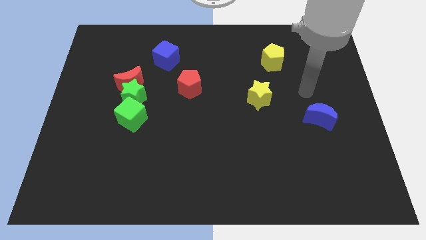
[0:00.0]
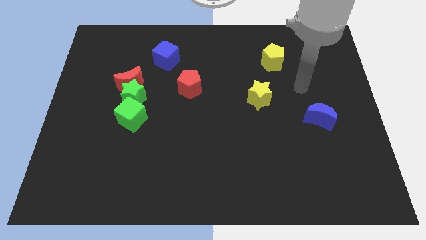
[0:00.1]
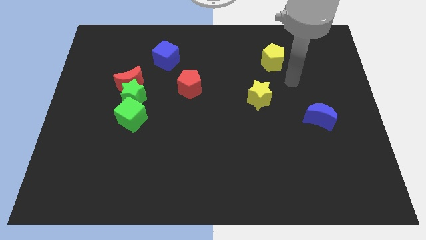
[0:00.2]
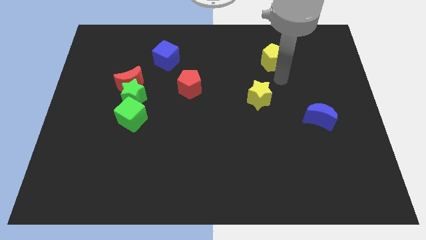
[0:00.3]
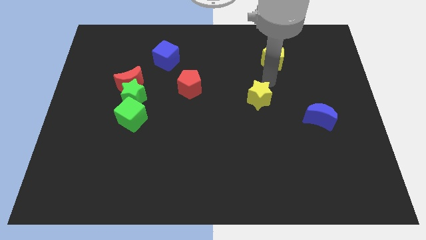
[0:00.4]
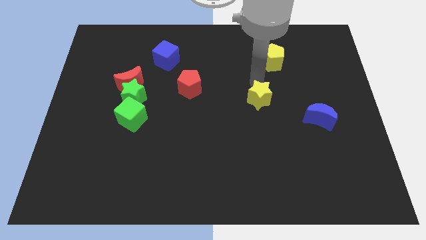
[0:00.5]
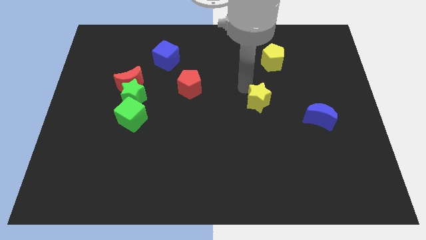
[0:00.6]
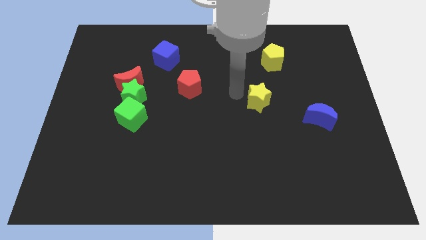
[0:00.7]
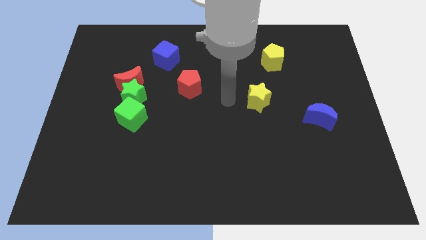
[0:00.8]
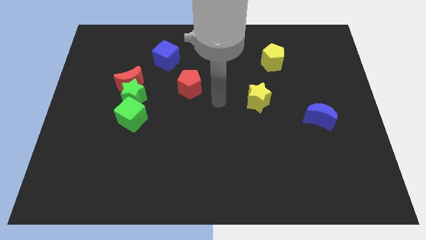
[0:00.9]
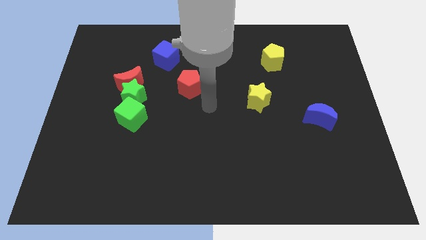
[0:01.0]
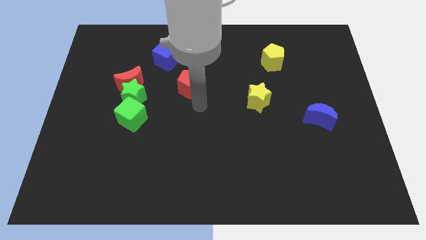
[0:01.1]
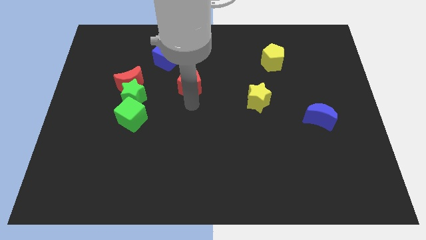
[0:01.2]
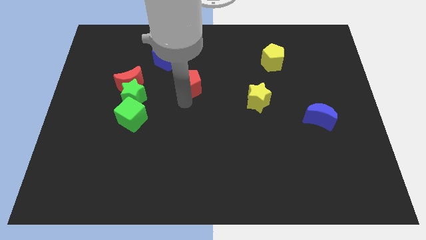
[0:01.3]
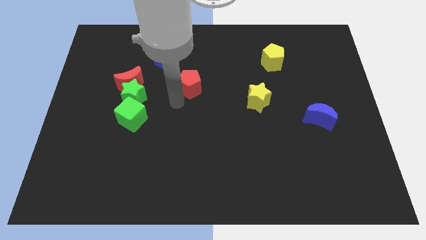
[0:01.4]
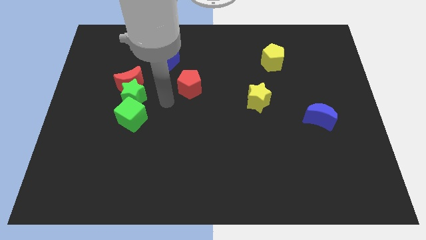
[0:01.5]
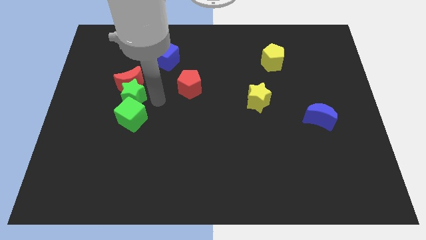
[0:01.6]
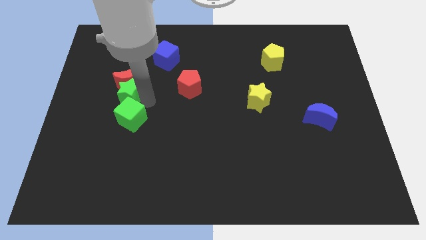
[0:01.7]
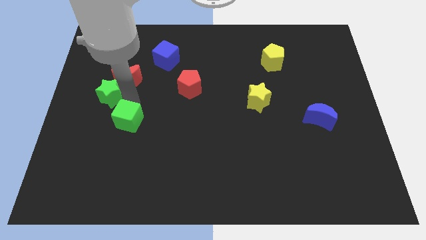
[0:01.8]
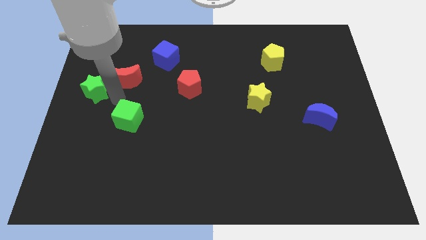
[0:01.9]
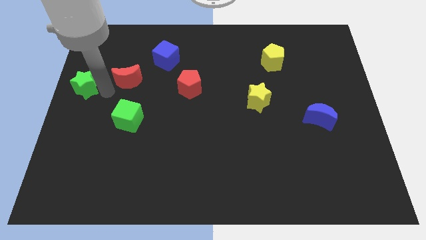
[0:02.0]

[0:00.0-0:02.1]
separate the red moon from the green star

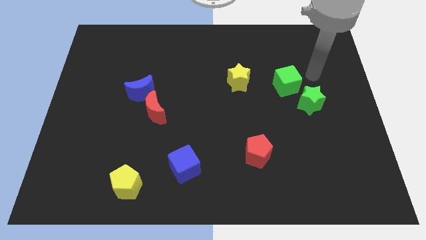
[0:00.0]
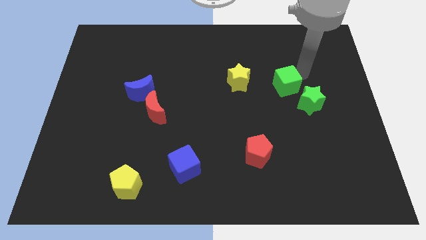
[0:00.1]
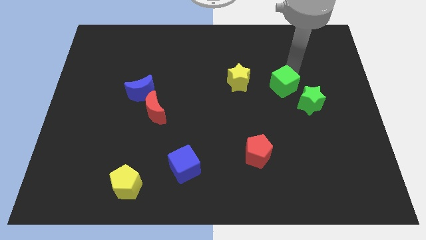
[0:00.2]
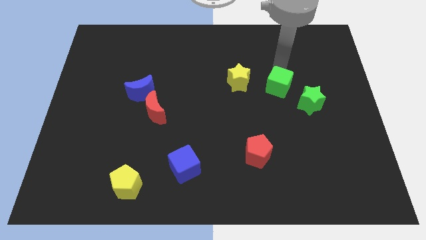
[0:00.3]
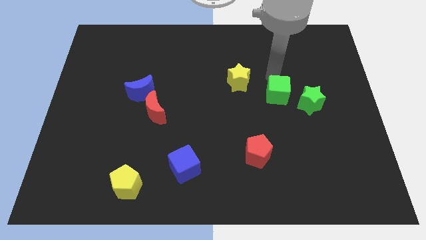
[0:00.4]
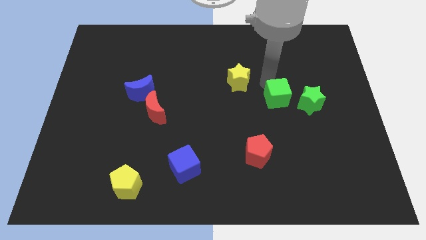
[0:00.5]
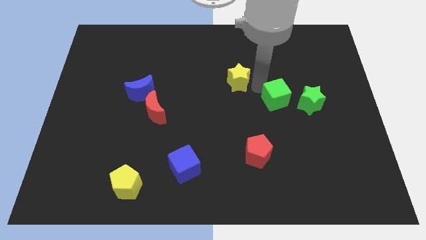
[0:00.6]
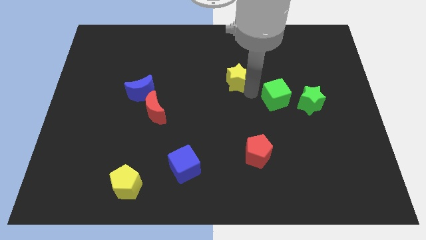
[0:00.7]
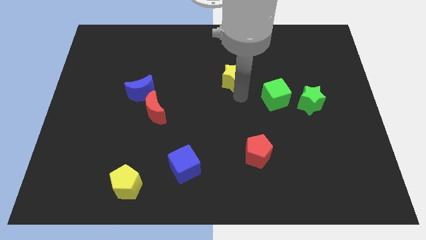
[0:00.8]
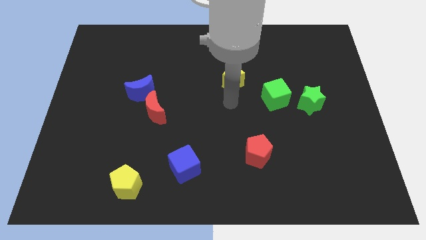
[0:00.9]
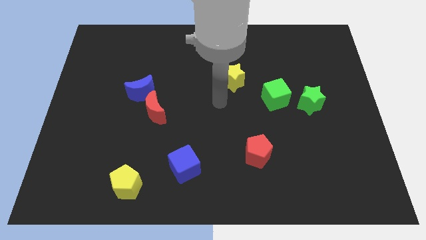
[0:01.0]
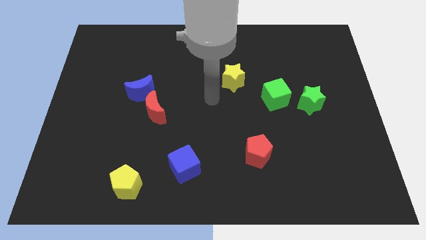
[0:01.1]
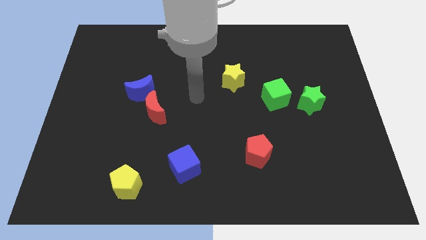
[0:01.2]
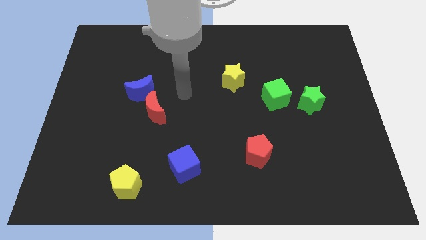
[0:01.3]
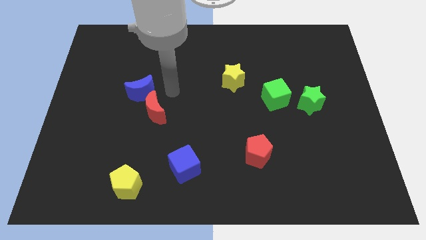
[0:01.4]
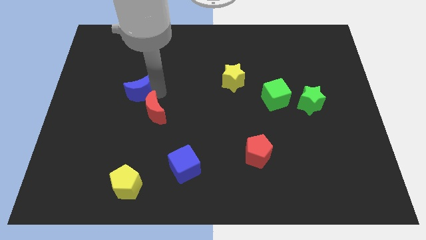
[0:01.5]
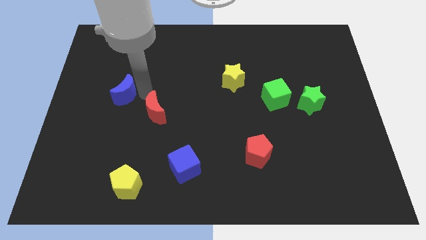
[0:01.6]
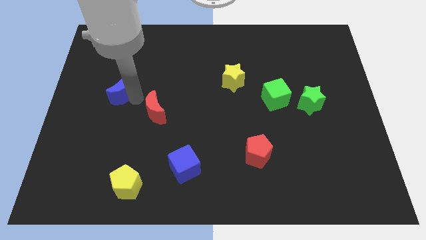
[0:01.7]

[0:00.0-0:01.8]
separate the red moon from the blue moon

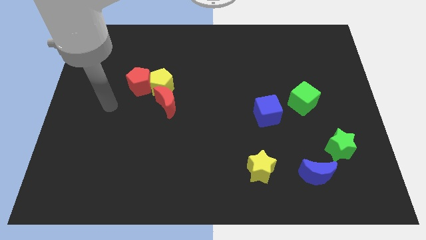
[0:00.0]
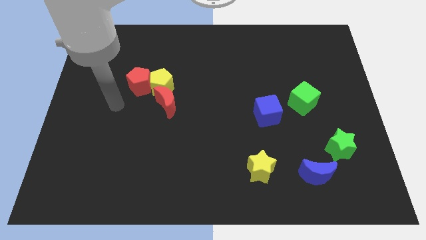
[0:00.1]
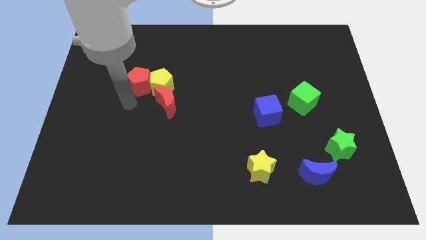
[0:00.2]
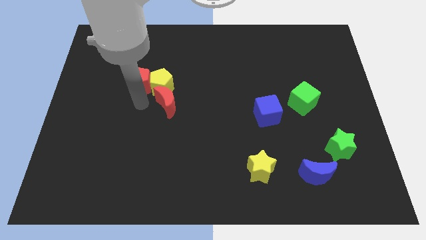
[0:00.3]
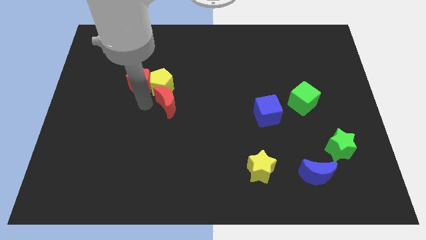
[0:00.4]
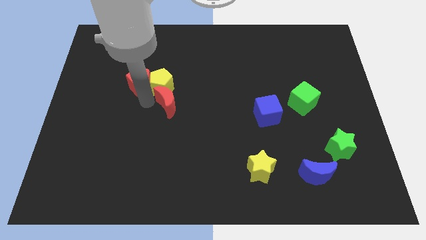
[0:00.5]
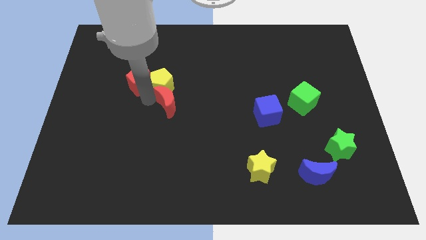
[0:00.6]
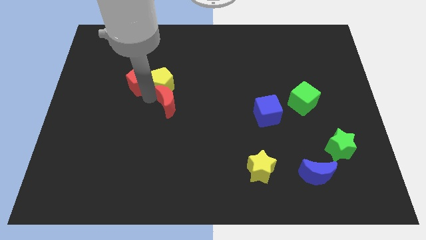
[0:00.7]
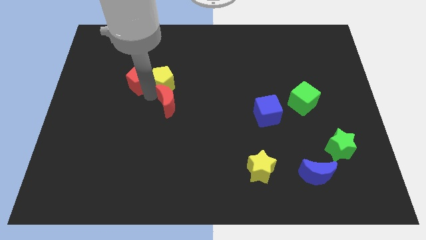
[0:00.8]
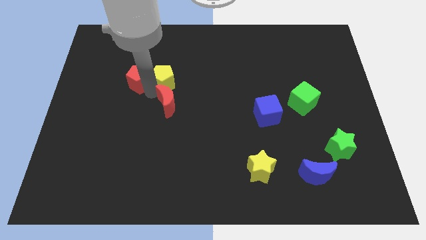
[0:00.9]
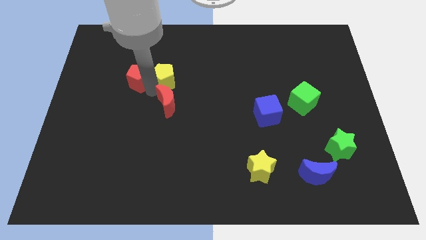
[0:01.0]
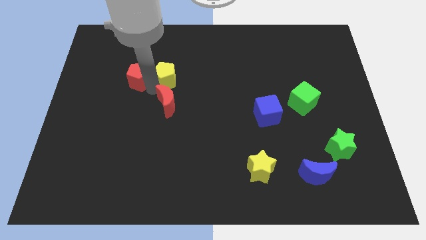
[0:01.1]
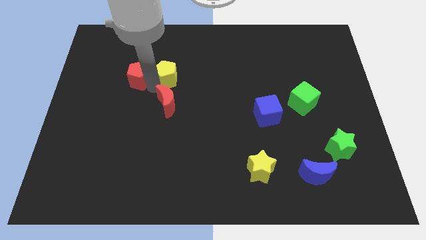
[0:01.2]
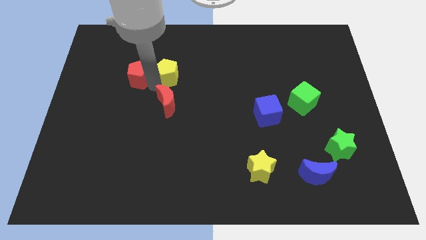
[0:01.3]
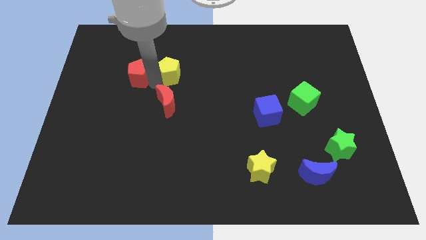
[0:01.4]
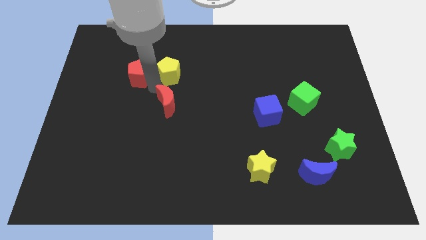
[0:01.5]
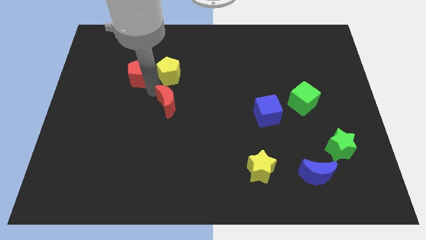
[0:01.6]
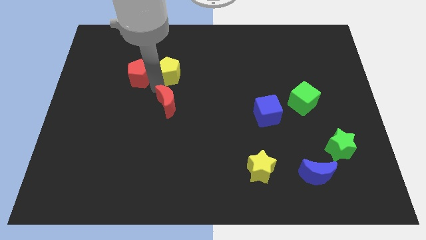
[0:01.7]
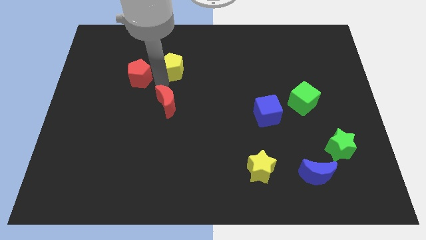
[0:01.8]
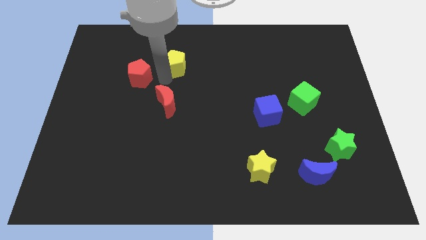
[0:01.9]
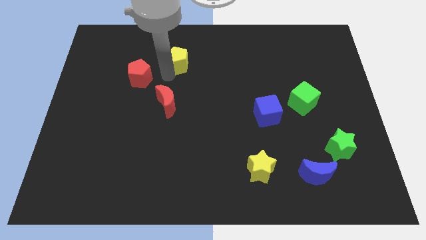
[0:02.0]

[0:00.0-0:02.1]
move the yellow pentagon away from the red pentagon and red moon

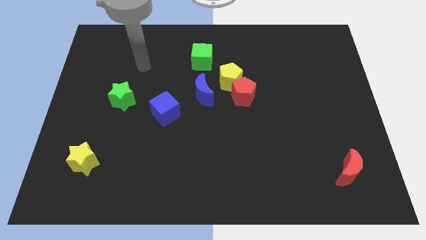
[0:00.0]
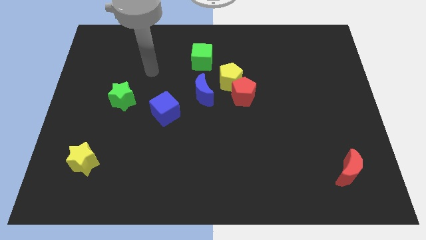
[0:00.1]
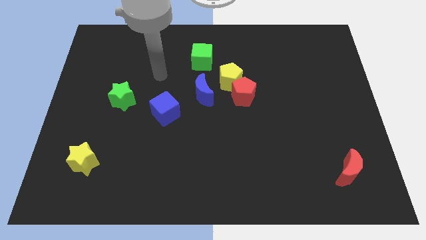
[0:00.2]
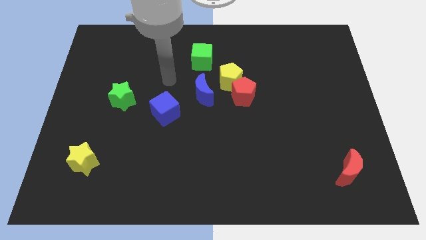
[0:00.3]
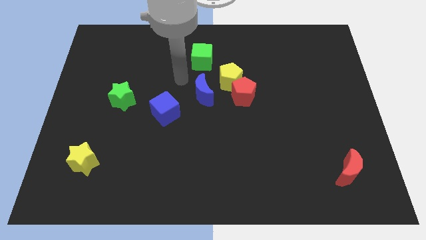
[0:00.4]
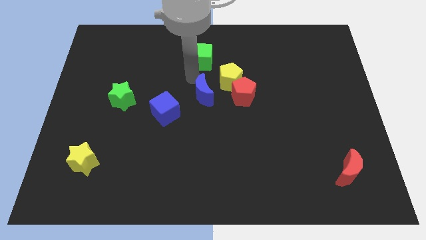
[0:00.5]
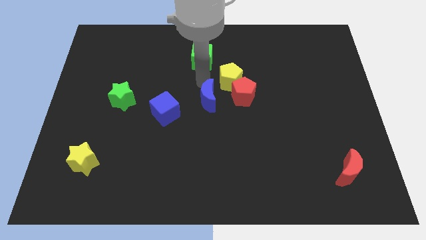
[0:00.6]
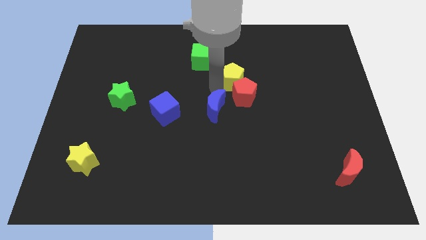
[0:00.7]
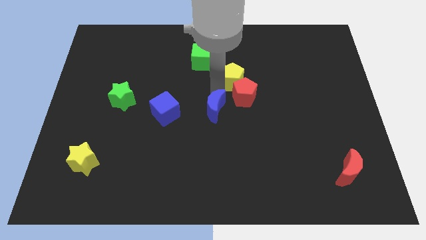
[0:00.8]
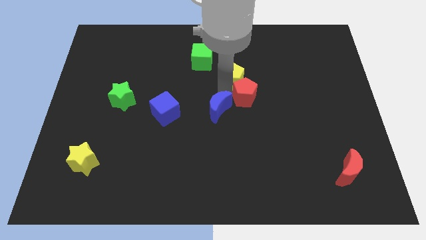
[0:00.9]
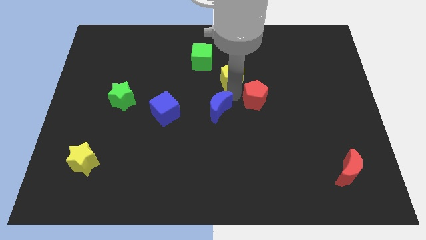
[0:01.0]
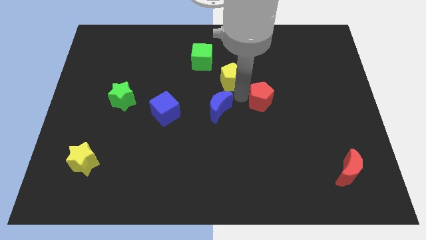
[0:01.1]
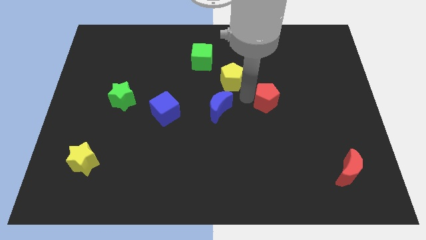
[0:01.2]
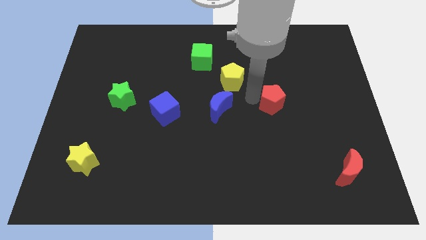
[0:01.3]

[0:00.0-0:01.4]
move the red pentagon away from the yellow pentagon and blue moon

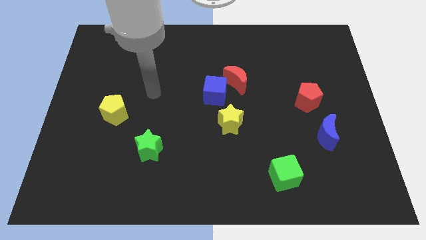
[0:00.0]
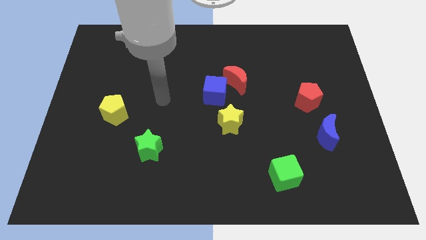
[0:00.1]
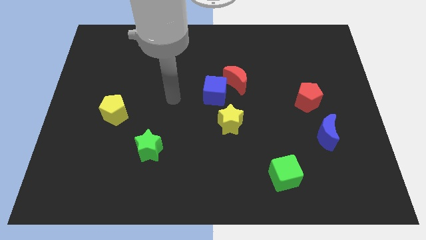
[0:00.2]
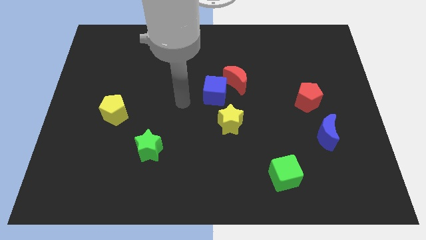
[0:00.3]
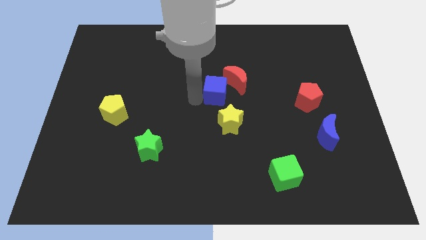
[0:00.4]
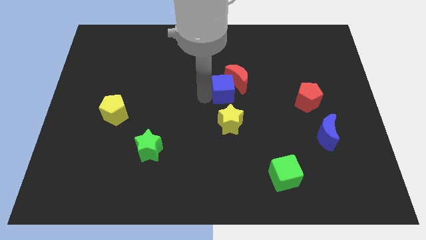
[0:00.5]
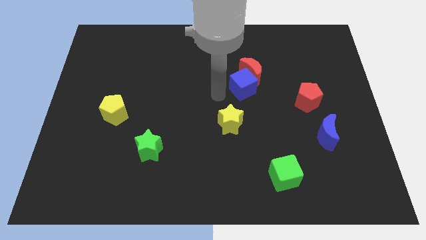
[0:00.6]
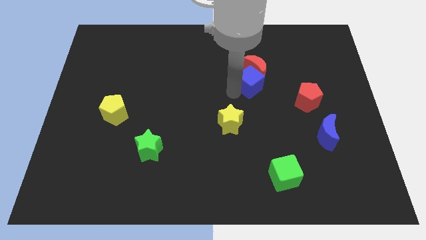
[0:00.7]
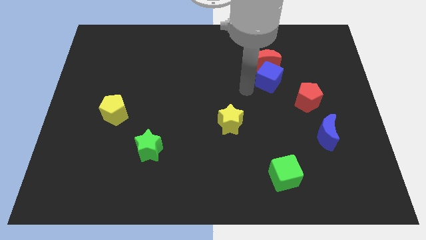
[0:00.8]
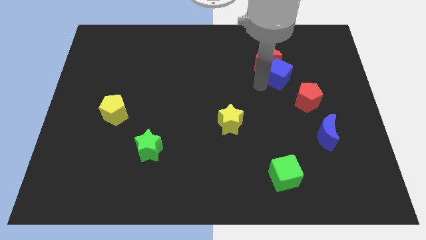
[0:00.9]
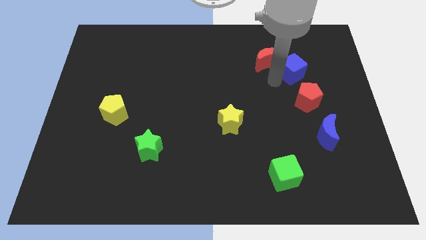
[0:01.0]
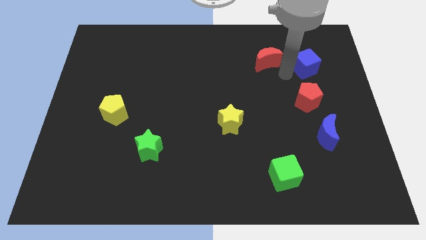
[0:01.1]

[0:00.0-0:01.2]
separate the red moon from the blue cube

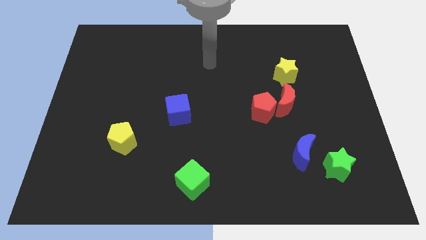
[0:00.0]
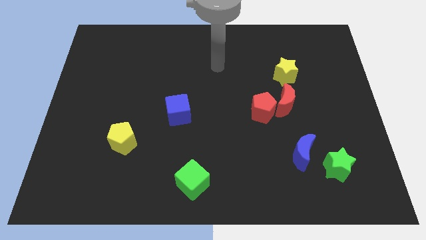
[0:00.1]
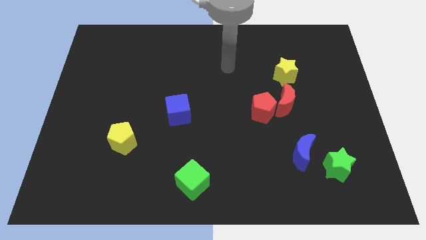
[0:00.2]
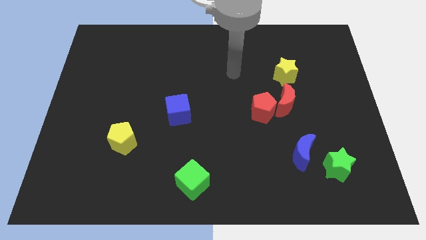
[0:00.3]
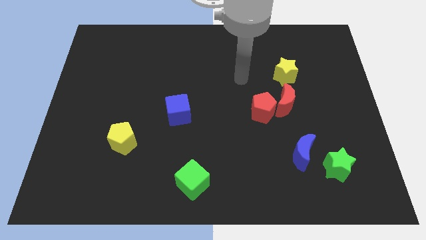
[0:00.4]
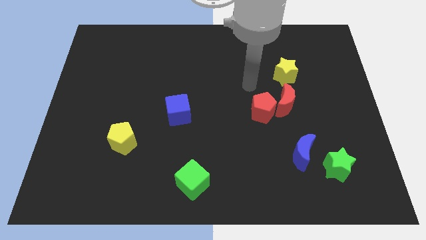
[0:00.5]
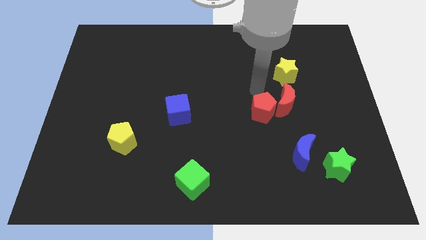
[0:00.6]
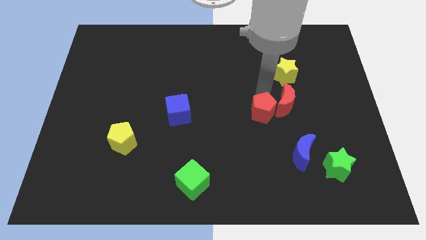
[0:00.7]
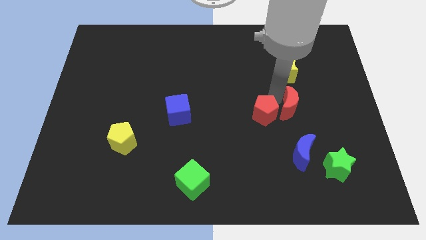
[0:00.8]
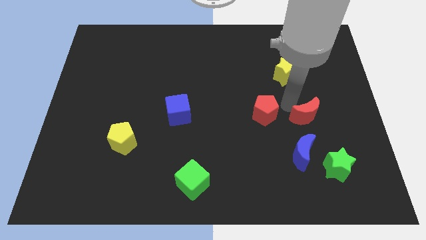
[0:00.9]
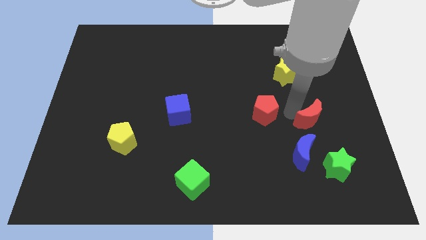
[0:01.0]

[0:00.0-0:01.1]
move the red pentagon away from the red moon
